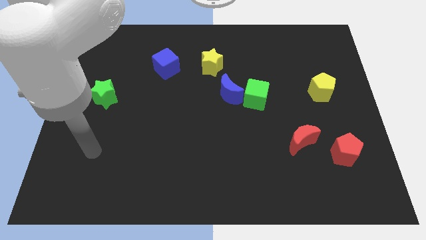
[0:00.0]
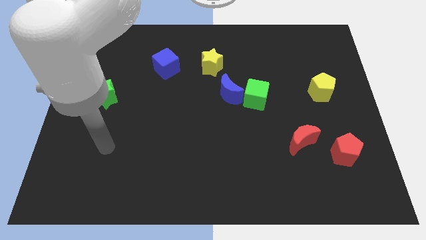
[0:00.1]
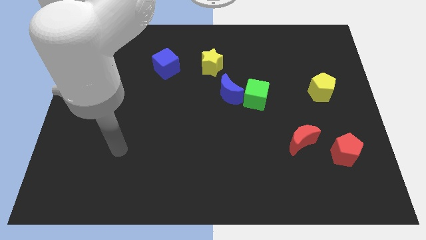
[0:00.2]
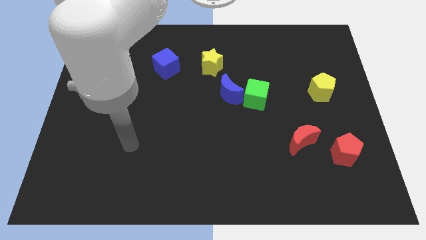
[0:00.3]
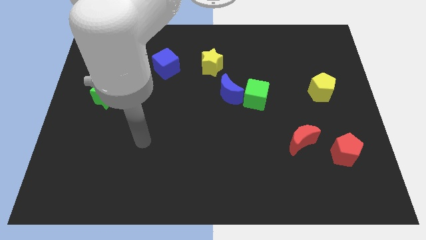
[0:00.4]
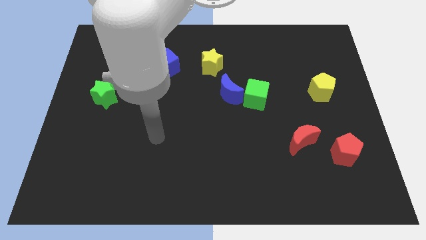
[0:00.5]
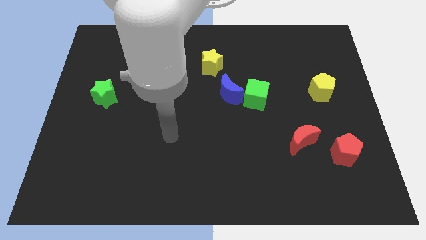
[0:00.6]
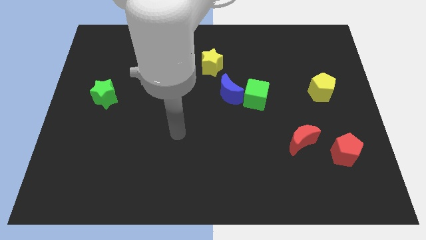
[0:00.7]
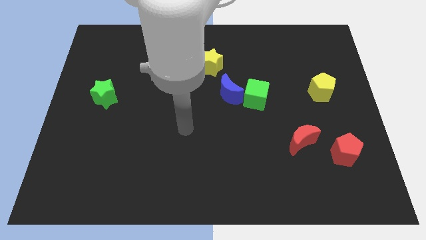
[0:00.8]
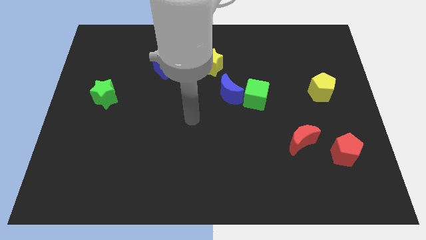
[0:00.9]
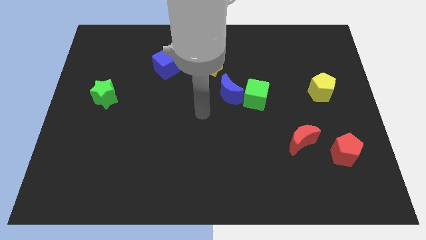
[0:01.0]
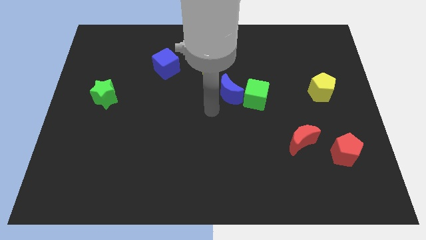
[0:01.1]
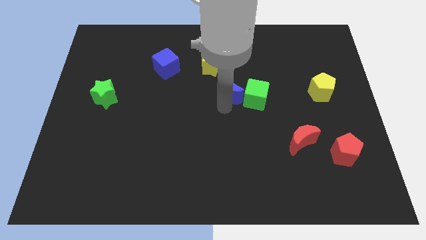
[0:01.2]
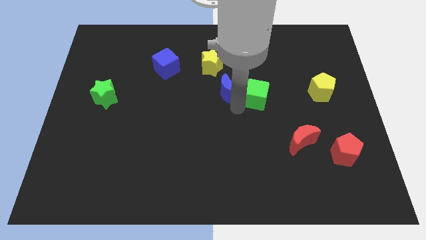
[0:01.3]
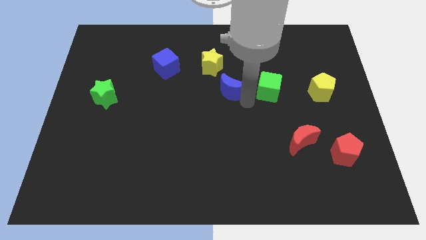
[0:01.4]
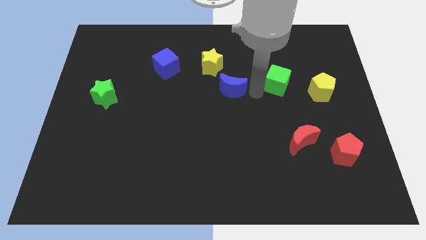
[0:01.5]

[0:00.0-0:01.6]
separate the blue moon from the green cube

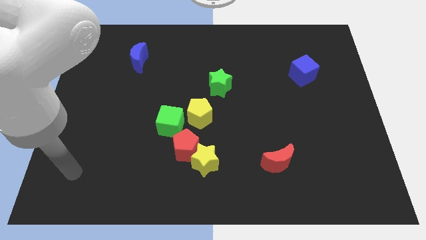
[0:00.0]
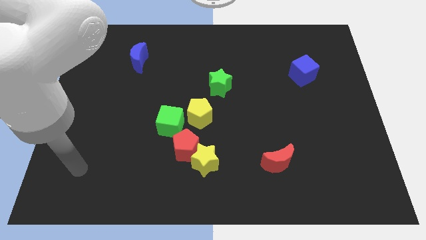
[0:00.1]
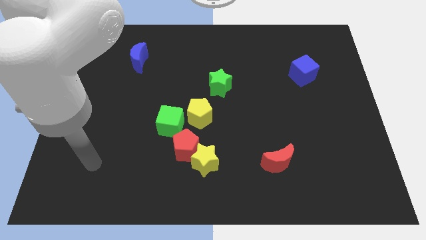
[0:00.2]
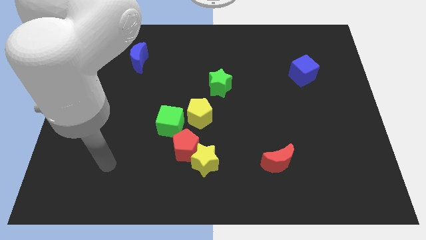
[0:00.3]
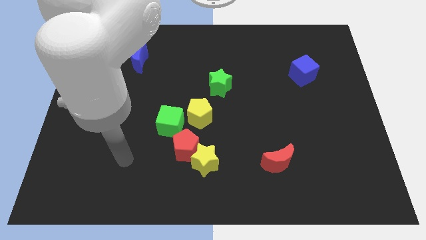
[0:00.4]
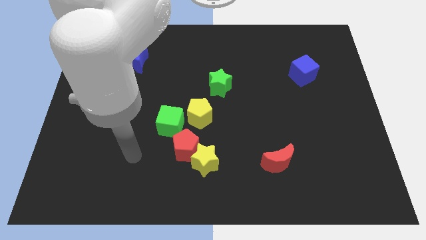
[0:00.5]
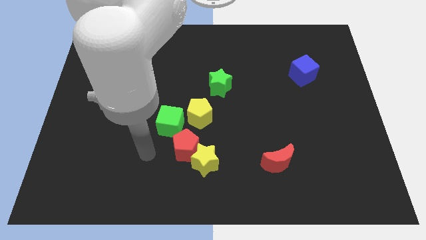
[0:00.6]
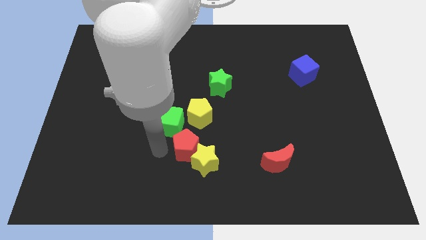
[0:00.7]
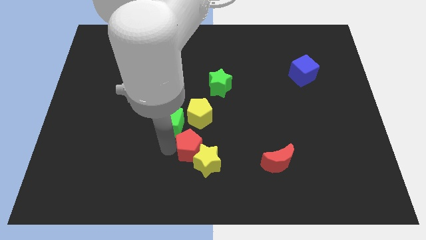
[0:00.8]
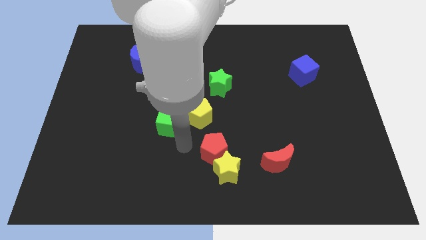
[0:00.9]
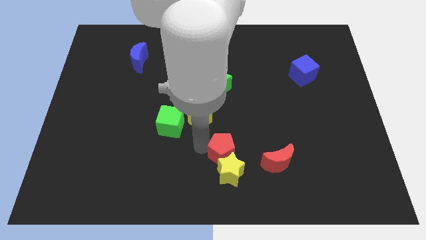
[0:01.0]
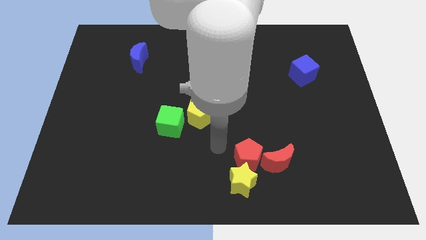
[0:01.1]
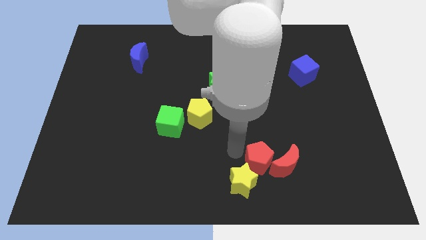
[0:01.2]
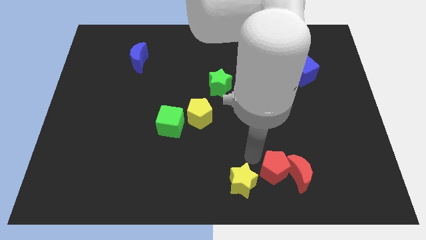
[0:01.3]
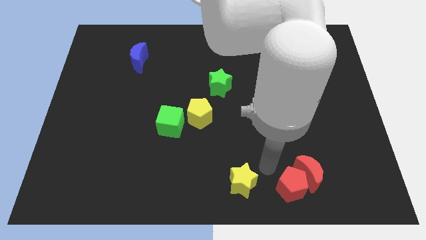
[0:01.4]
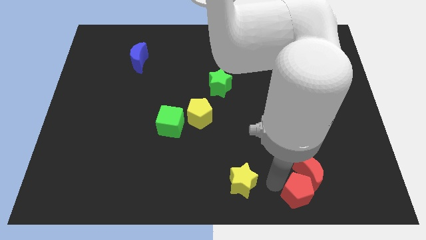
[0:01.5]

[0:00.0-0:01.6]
separate the yellow star from the red pentagon

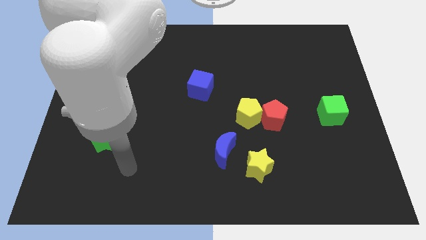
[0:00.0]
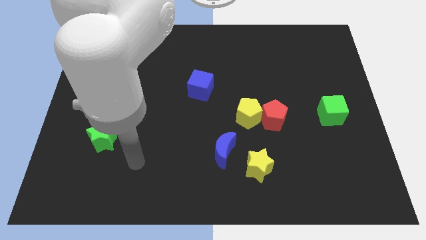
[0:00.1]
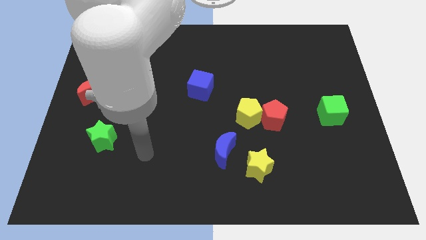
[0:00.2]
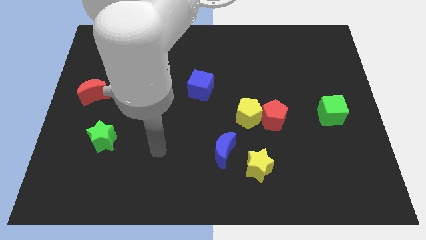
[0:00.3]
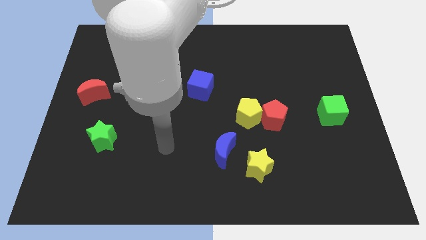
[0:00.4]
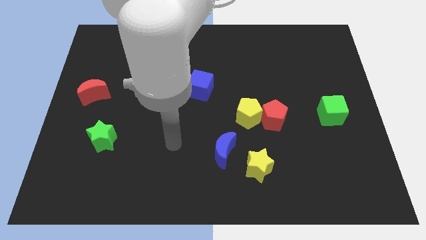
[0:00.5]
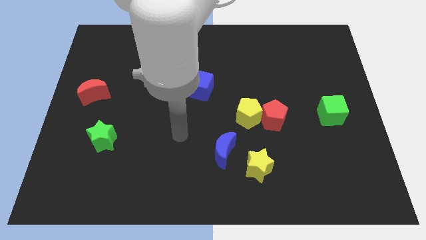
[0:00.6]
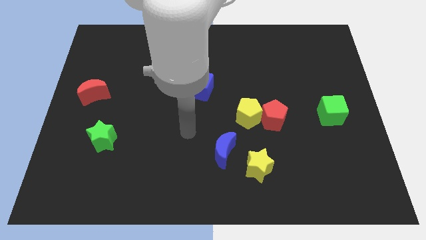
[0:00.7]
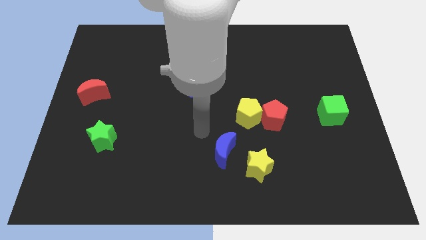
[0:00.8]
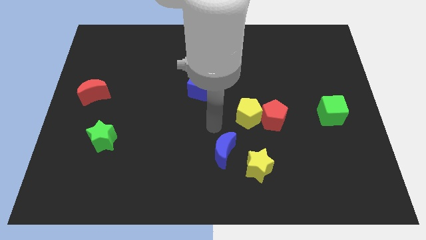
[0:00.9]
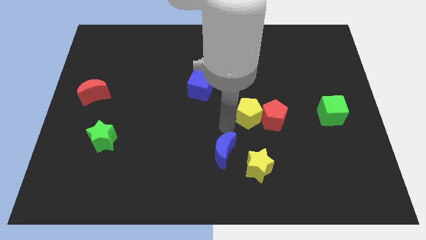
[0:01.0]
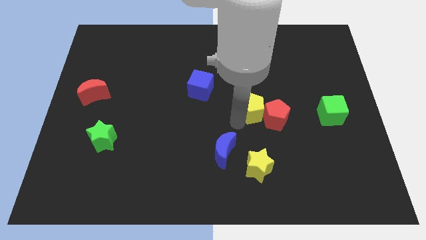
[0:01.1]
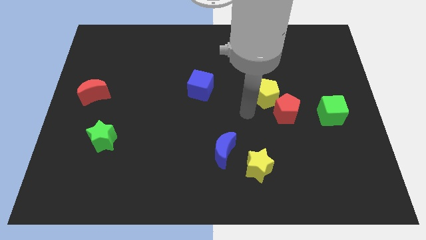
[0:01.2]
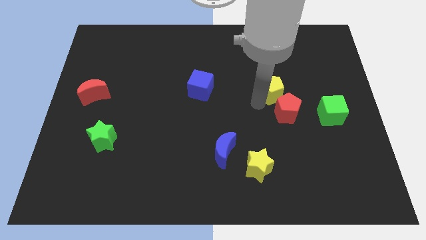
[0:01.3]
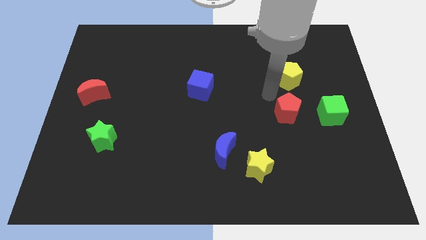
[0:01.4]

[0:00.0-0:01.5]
pull the red pentagon apart from the yellow pentagon

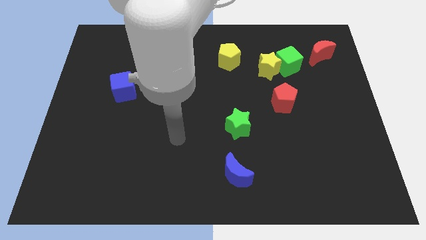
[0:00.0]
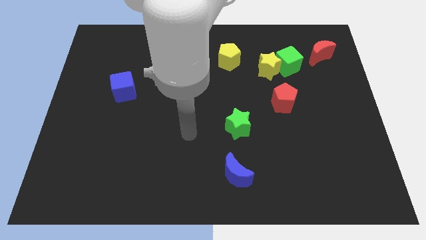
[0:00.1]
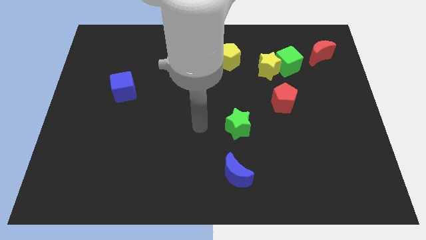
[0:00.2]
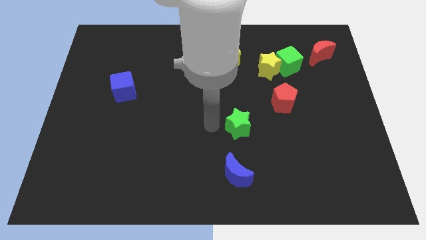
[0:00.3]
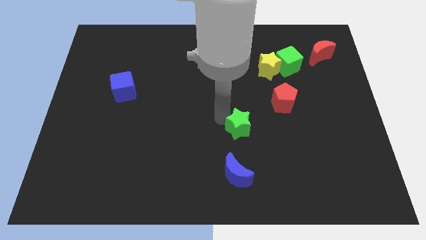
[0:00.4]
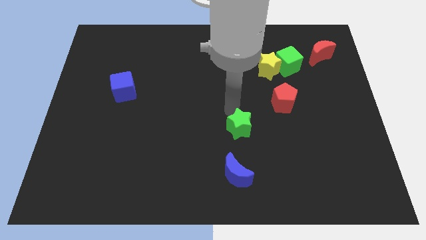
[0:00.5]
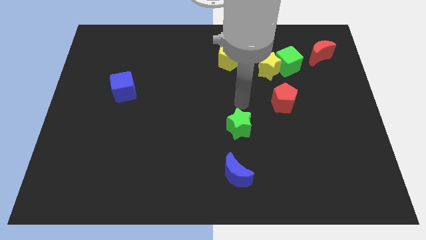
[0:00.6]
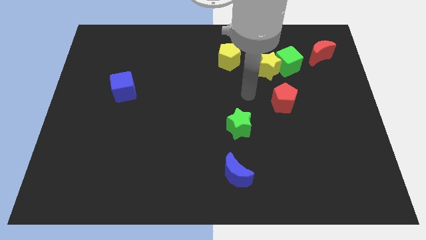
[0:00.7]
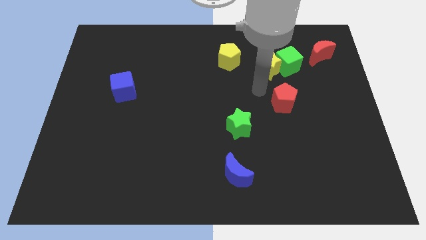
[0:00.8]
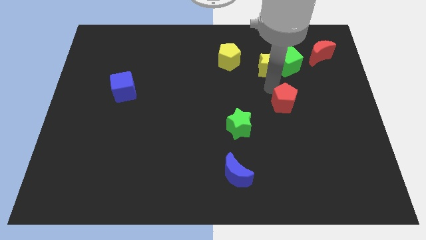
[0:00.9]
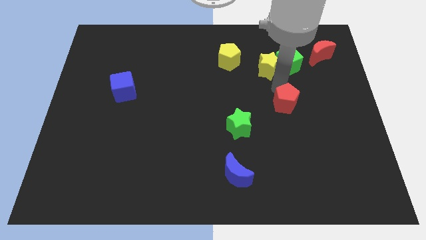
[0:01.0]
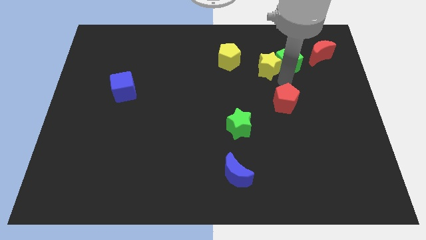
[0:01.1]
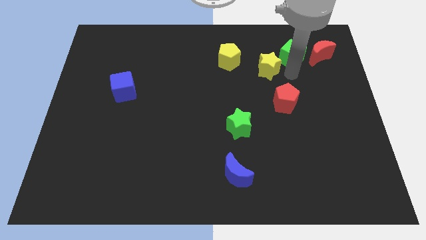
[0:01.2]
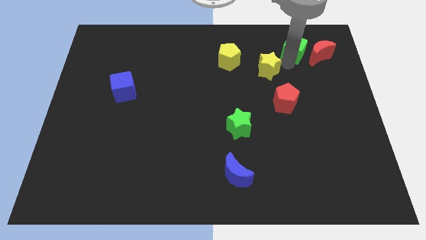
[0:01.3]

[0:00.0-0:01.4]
move the yellow star away from the green cube

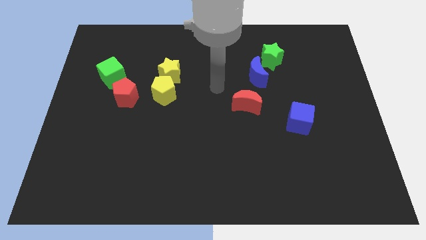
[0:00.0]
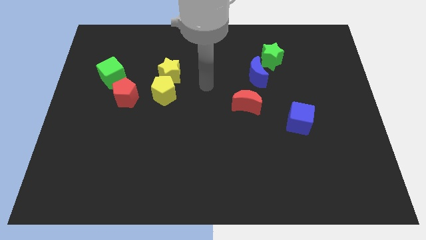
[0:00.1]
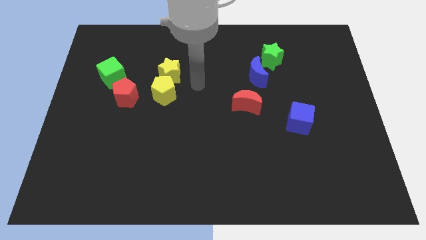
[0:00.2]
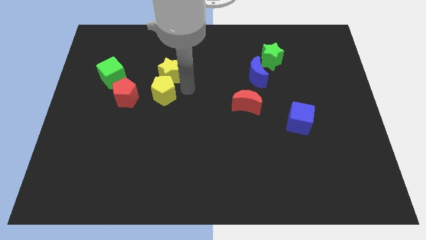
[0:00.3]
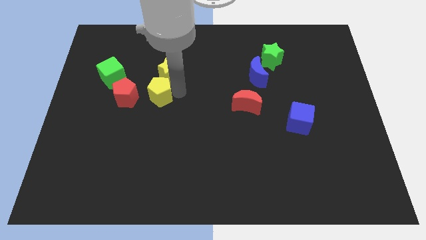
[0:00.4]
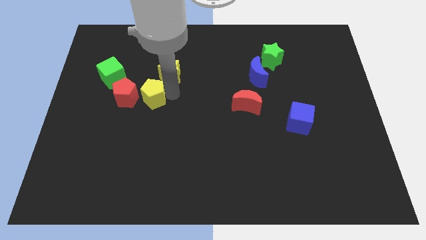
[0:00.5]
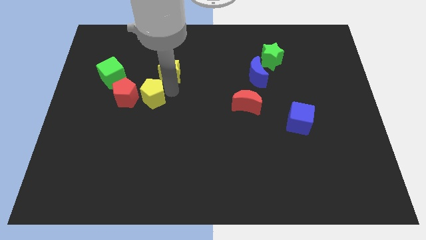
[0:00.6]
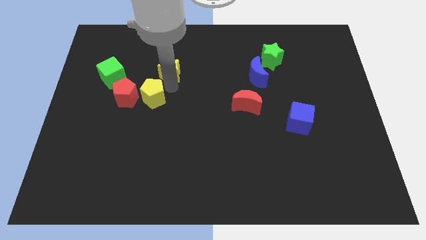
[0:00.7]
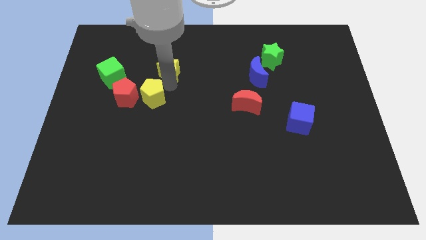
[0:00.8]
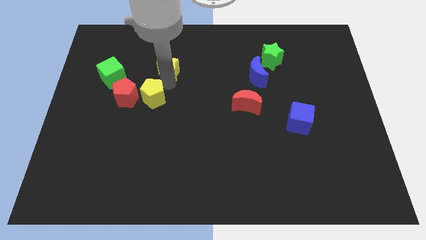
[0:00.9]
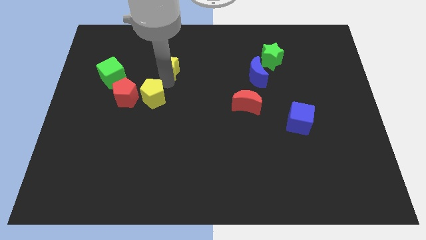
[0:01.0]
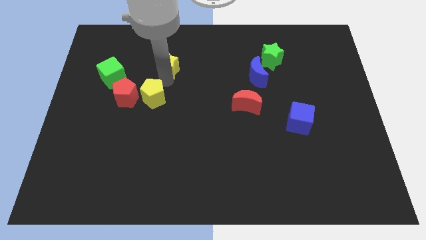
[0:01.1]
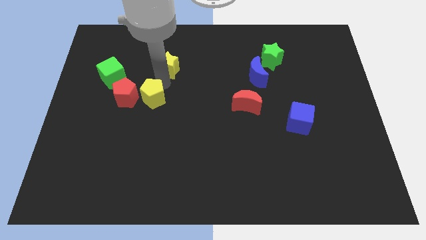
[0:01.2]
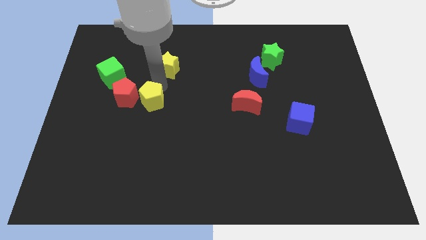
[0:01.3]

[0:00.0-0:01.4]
separate the yellow star from the yellow pentagon

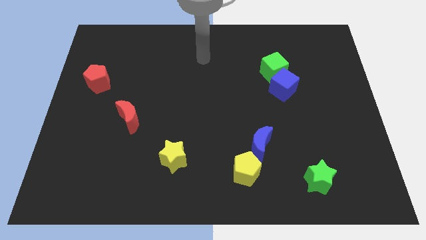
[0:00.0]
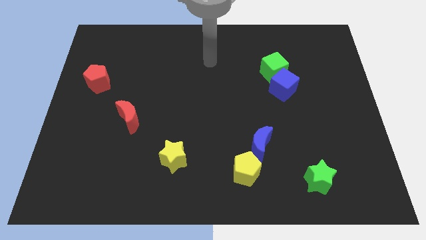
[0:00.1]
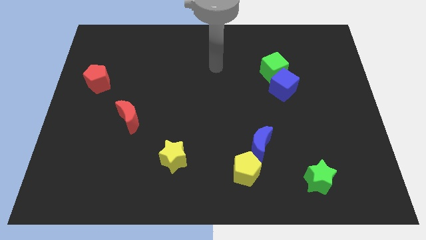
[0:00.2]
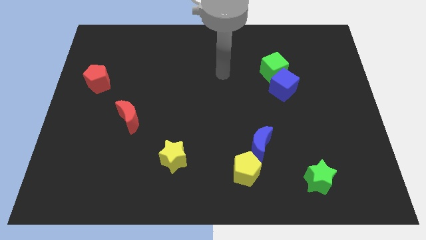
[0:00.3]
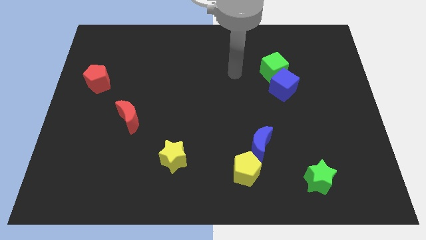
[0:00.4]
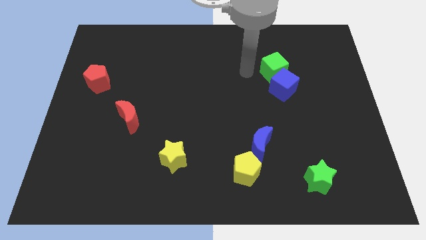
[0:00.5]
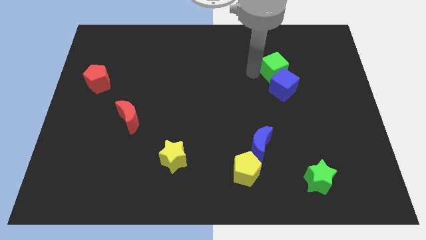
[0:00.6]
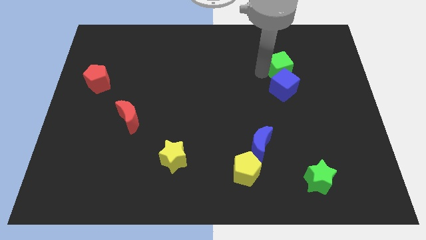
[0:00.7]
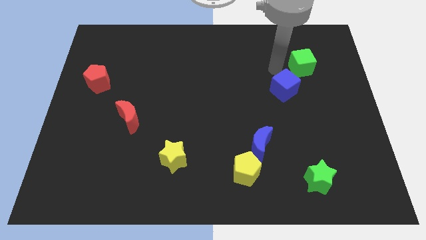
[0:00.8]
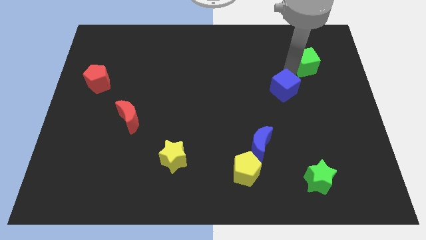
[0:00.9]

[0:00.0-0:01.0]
move the blue cube away from the green cube

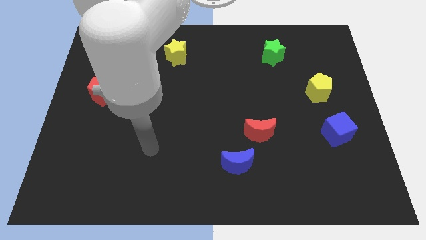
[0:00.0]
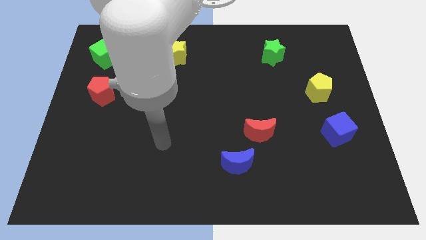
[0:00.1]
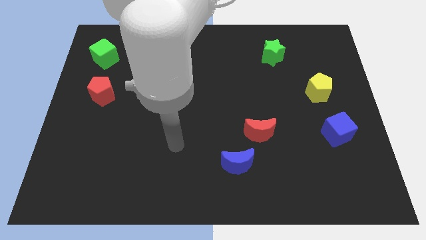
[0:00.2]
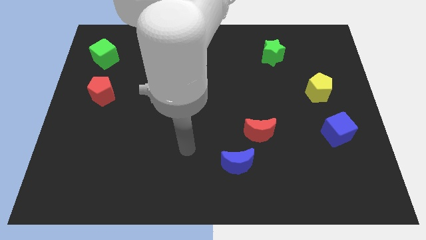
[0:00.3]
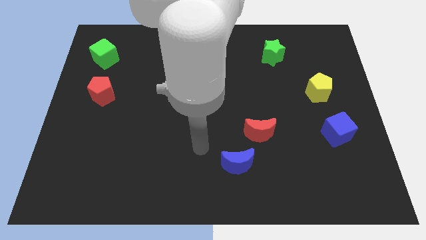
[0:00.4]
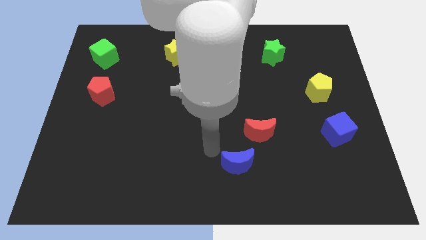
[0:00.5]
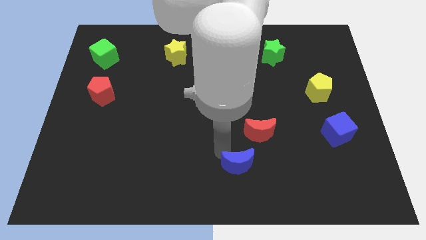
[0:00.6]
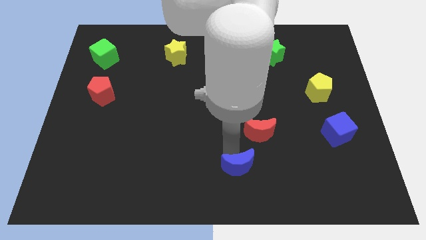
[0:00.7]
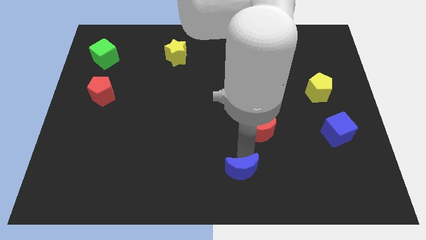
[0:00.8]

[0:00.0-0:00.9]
pull the red moon apart from the blue moon
